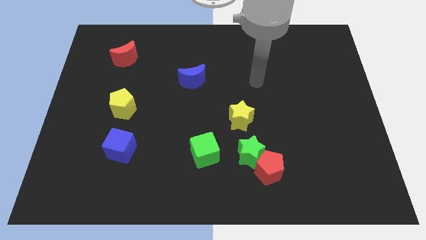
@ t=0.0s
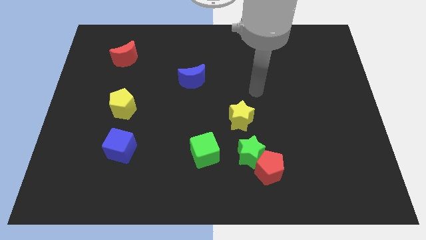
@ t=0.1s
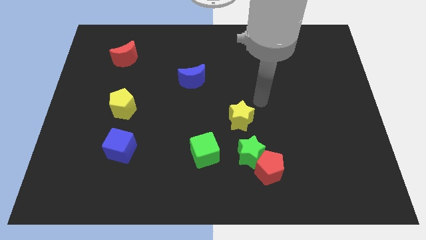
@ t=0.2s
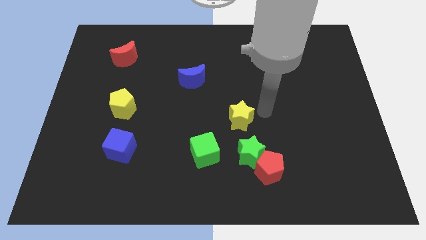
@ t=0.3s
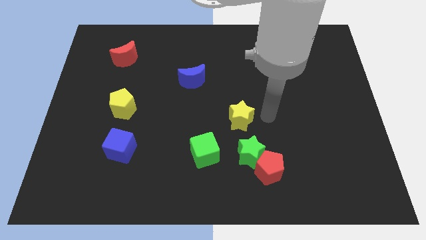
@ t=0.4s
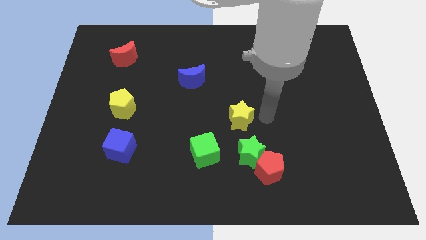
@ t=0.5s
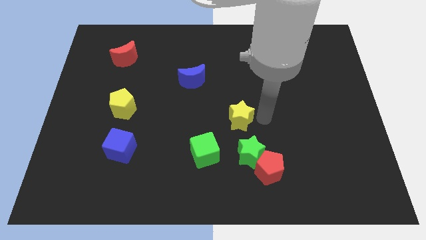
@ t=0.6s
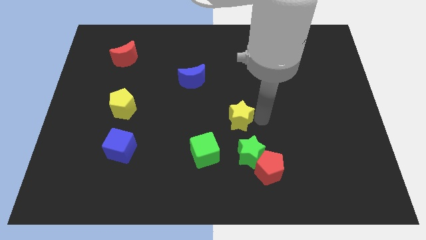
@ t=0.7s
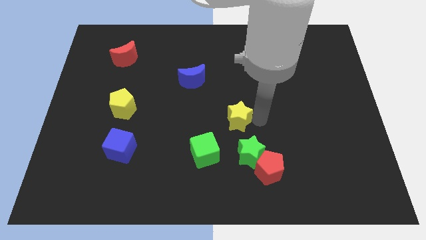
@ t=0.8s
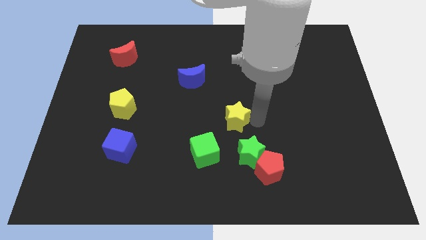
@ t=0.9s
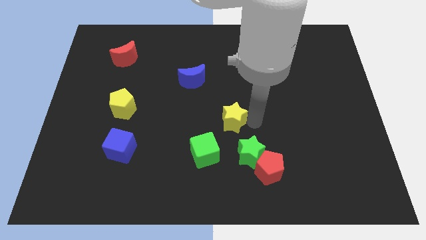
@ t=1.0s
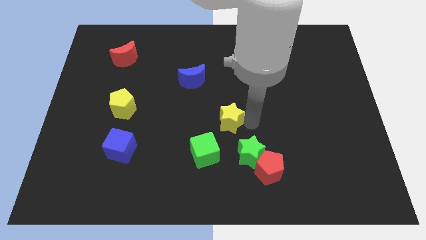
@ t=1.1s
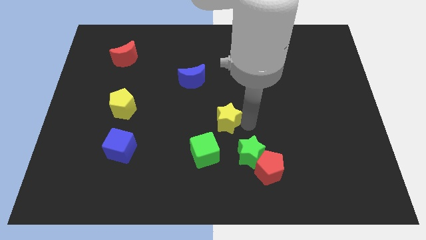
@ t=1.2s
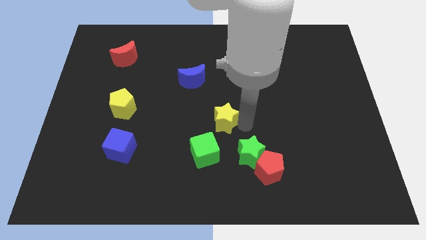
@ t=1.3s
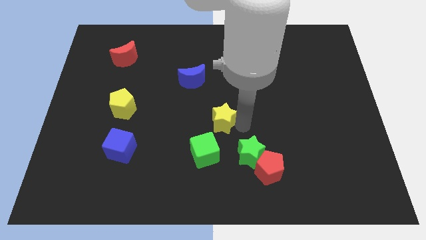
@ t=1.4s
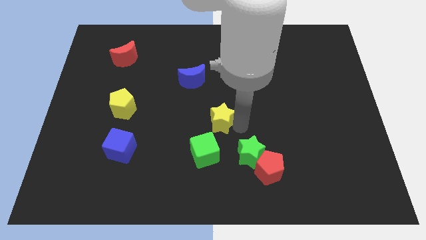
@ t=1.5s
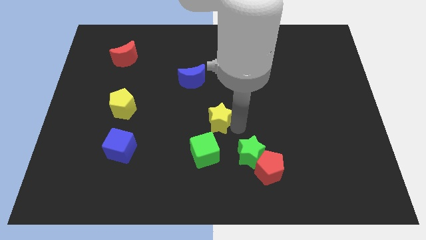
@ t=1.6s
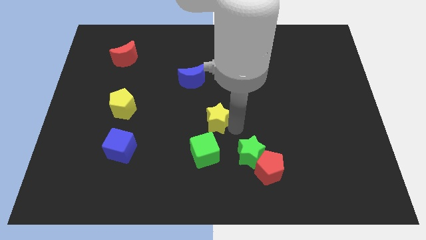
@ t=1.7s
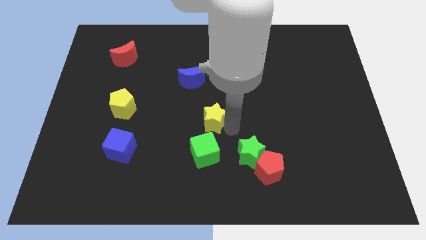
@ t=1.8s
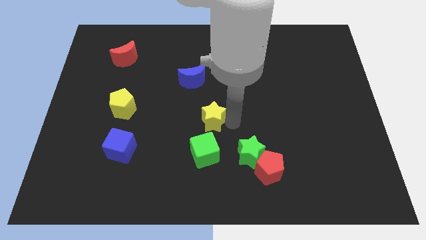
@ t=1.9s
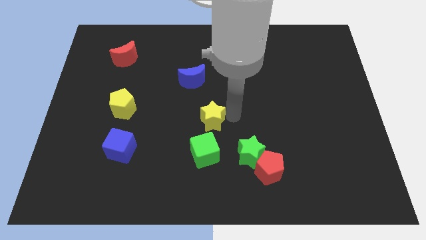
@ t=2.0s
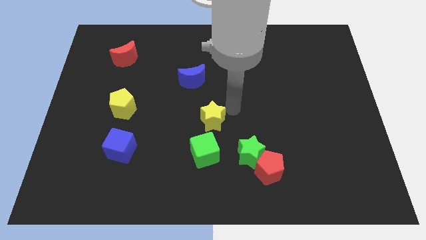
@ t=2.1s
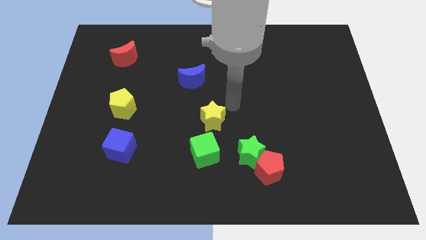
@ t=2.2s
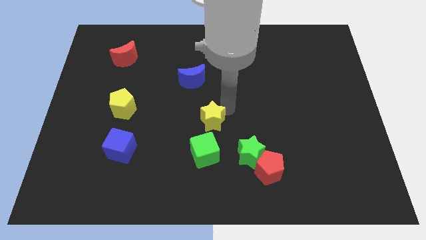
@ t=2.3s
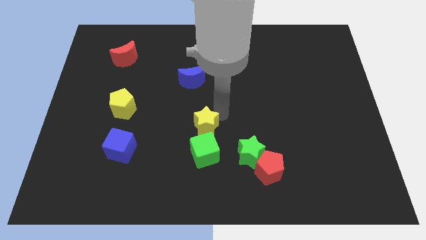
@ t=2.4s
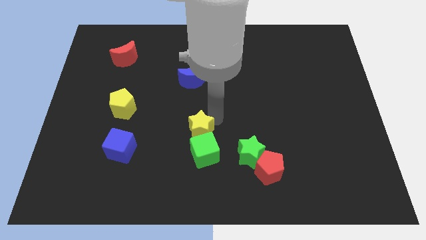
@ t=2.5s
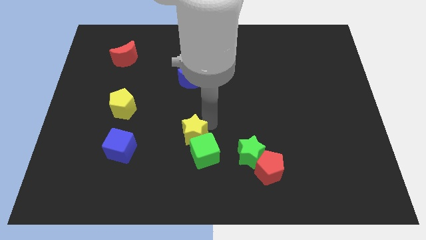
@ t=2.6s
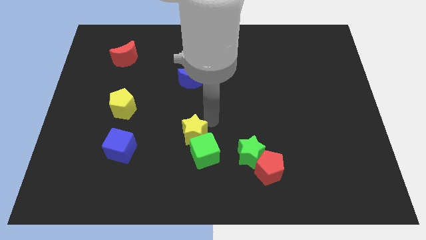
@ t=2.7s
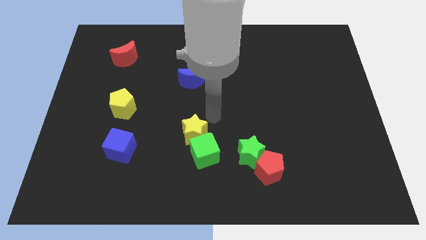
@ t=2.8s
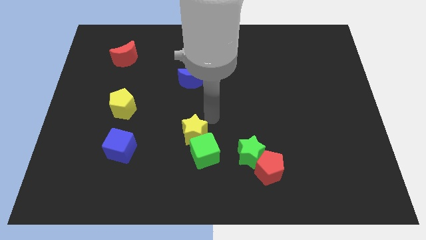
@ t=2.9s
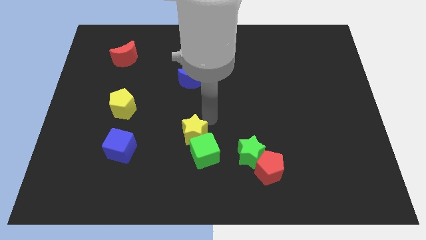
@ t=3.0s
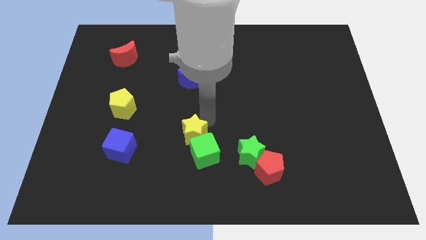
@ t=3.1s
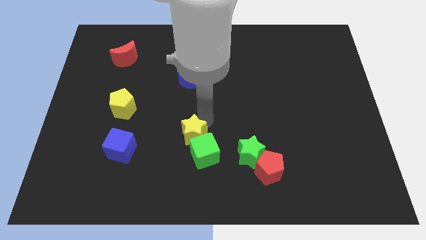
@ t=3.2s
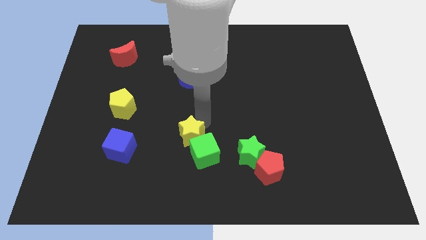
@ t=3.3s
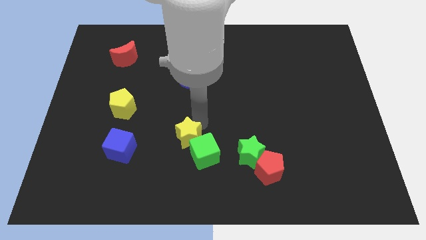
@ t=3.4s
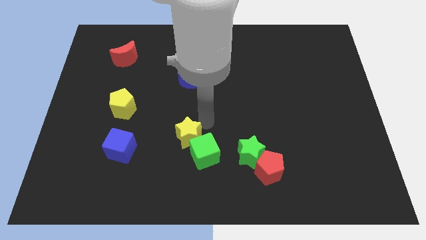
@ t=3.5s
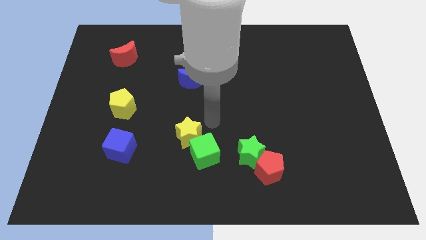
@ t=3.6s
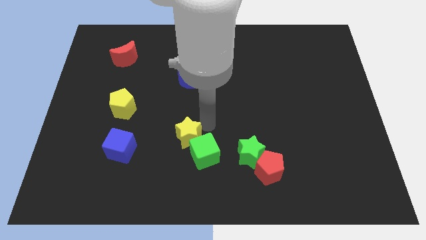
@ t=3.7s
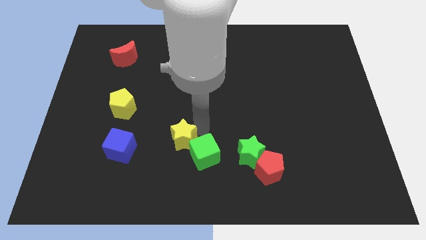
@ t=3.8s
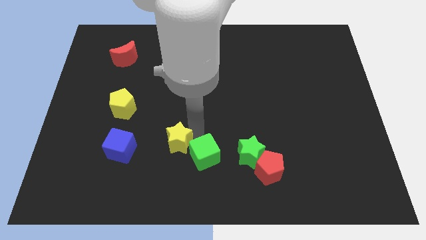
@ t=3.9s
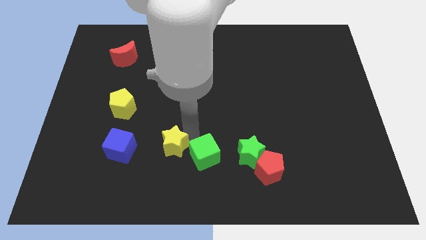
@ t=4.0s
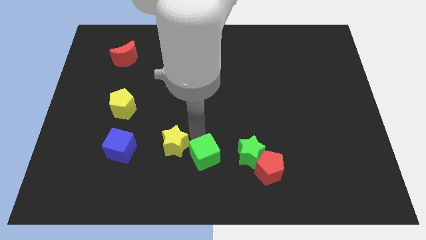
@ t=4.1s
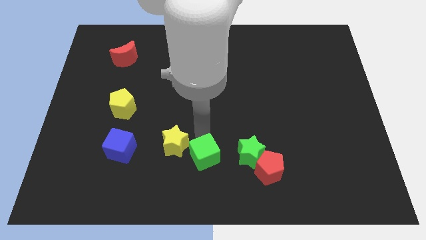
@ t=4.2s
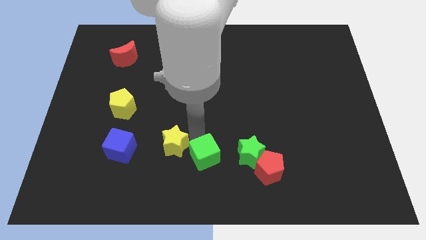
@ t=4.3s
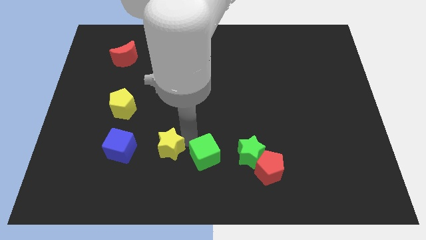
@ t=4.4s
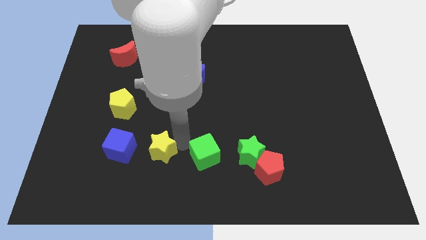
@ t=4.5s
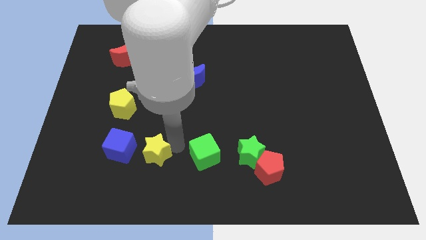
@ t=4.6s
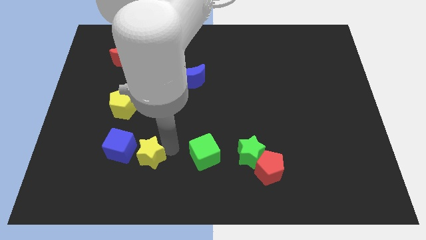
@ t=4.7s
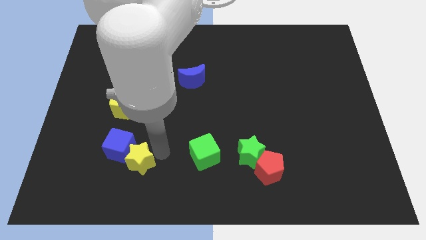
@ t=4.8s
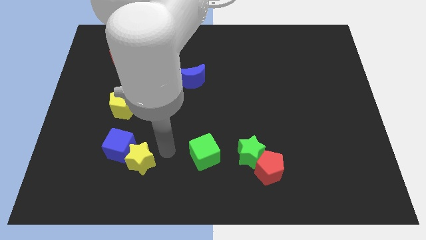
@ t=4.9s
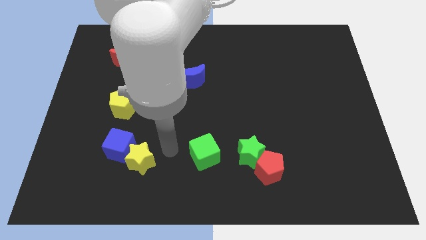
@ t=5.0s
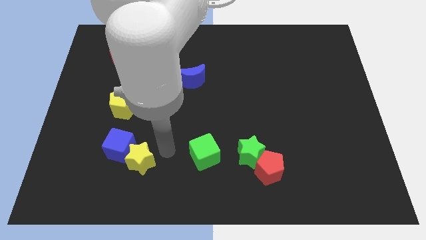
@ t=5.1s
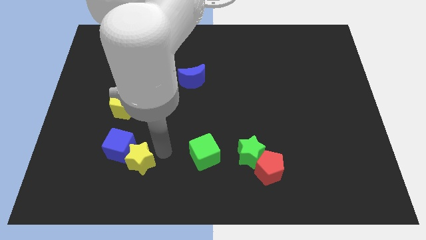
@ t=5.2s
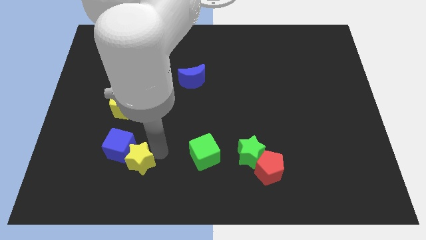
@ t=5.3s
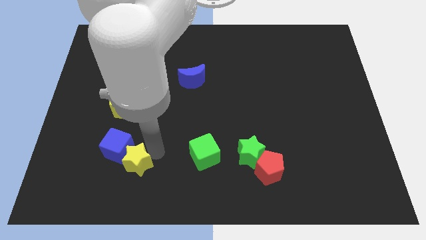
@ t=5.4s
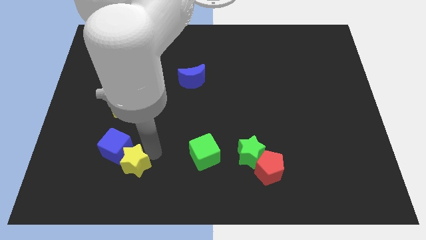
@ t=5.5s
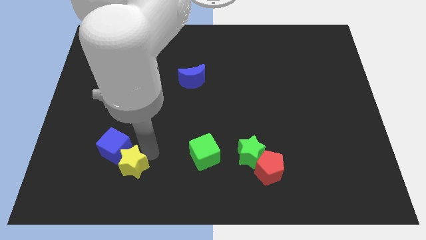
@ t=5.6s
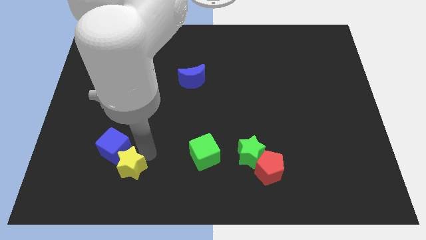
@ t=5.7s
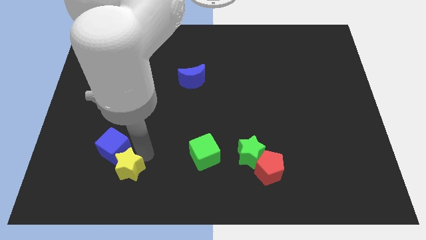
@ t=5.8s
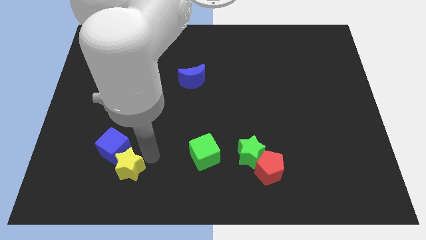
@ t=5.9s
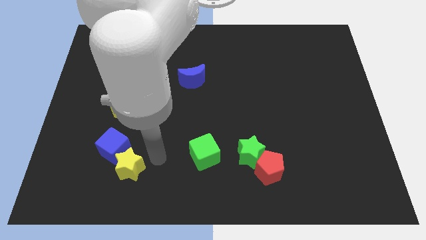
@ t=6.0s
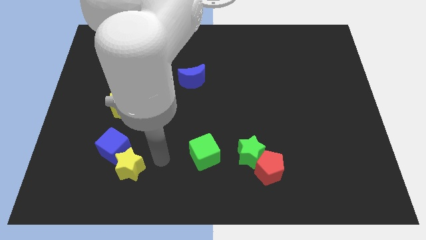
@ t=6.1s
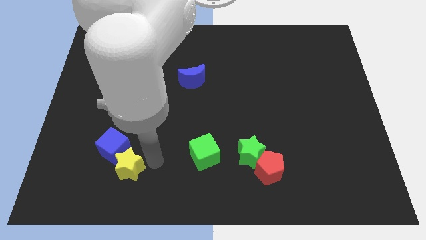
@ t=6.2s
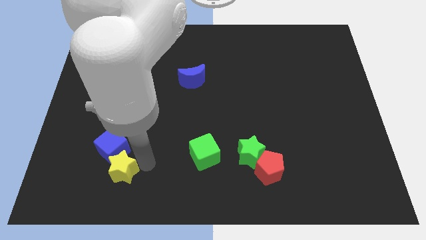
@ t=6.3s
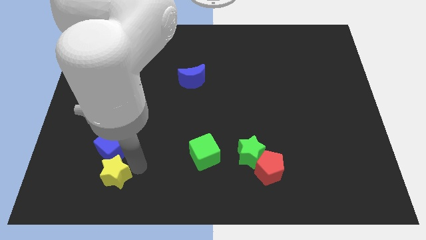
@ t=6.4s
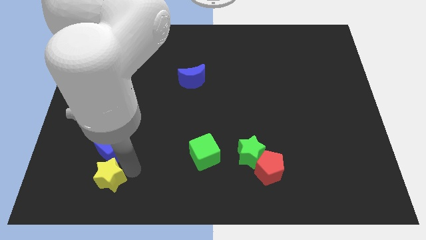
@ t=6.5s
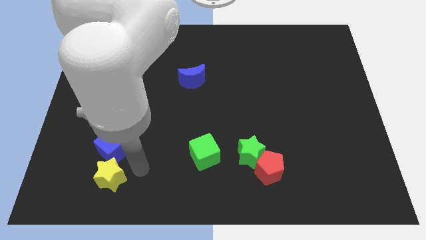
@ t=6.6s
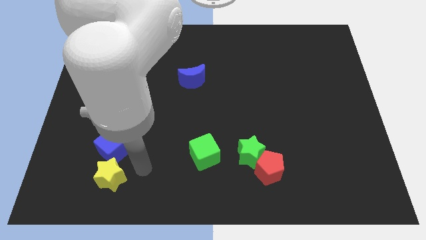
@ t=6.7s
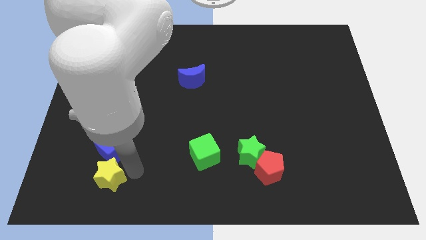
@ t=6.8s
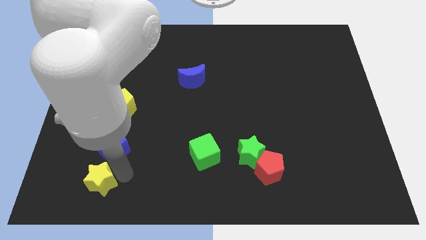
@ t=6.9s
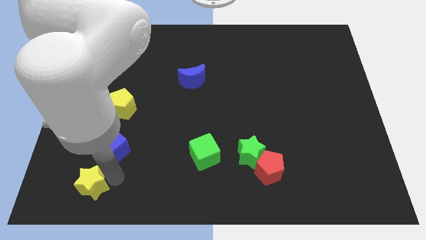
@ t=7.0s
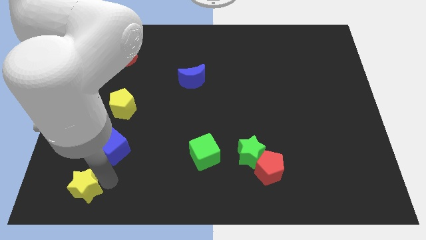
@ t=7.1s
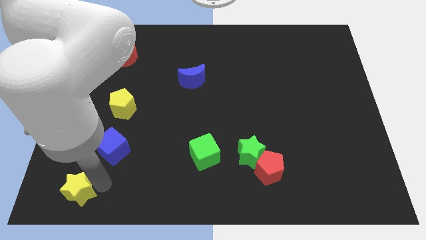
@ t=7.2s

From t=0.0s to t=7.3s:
move the yellow star to the bottom left of the board
